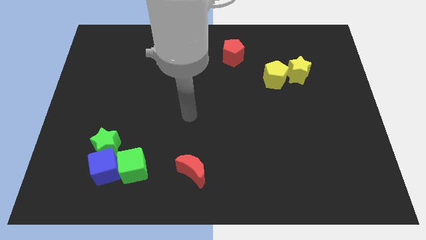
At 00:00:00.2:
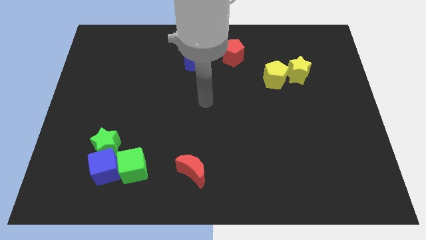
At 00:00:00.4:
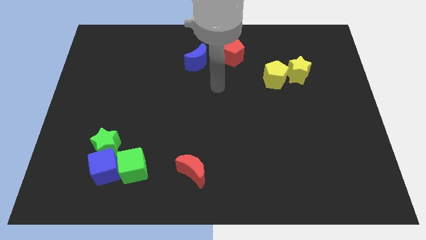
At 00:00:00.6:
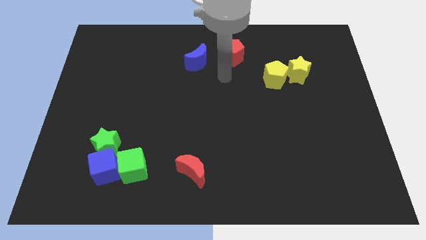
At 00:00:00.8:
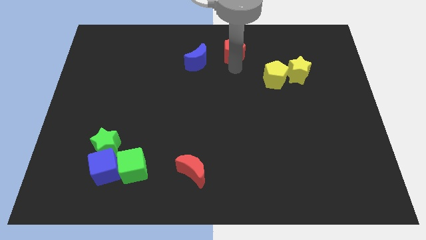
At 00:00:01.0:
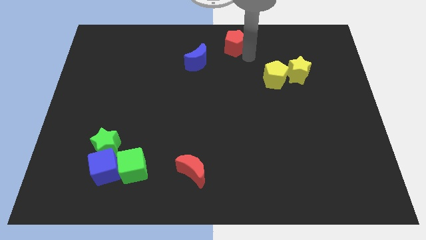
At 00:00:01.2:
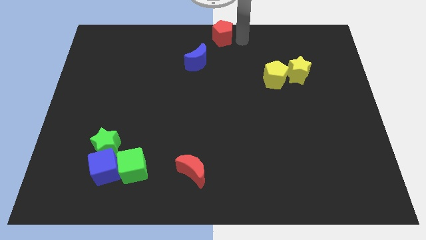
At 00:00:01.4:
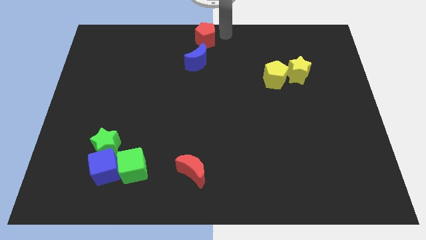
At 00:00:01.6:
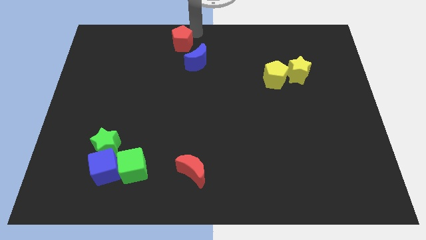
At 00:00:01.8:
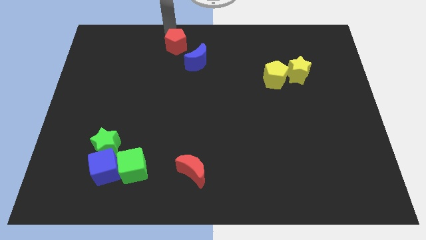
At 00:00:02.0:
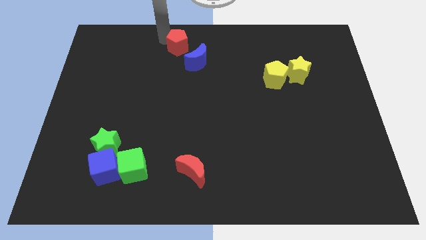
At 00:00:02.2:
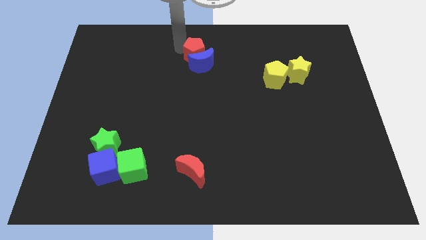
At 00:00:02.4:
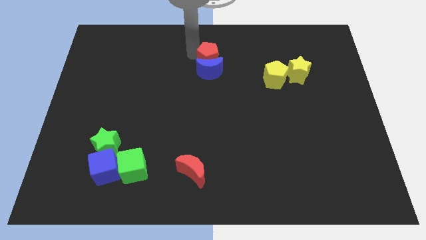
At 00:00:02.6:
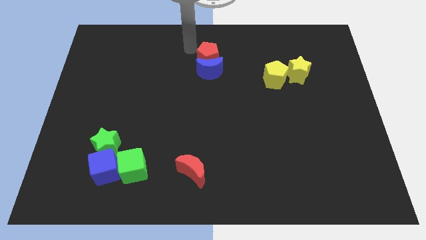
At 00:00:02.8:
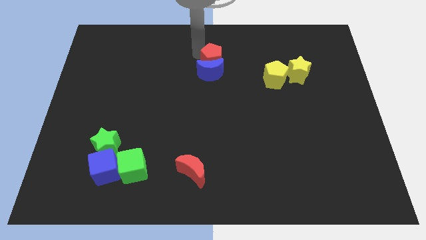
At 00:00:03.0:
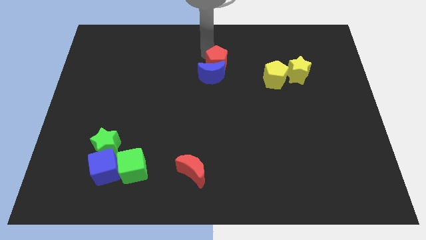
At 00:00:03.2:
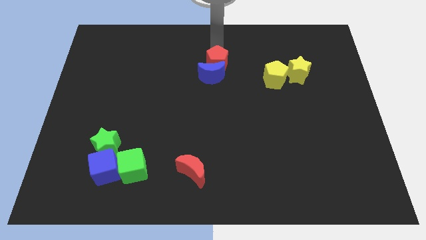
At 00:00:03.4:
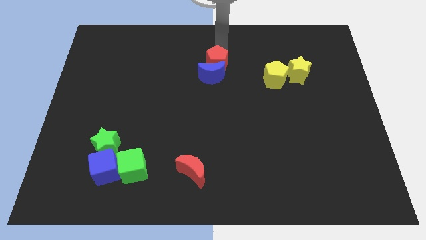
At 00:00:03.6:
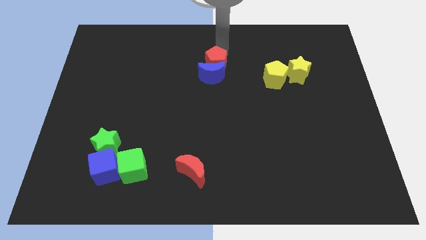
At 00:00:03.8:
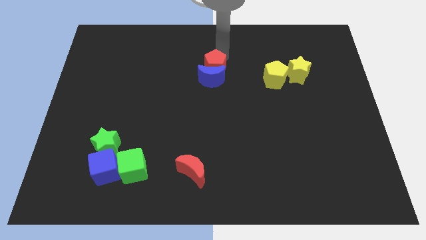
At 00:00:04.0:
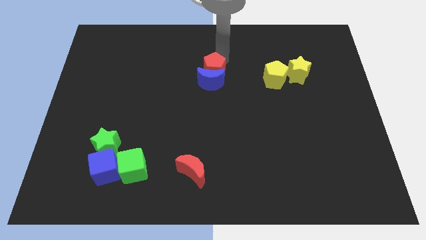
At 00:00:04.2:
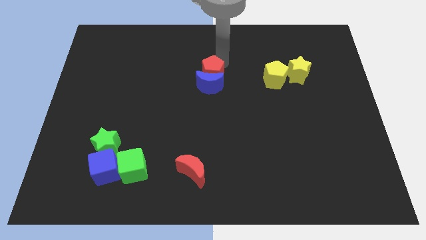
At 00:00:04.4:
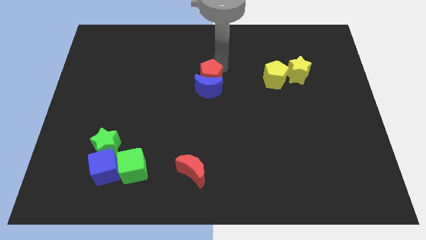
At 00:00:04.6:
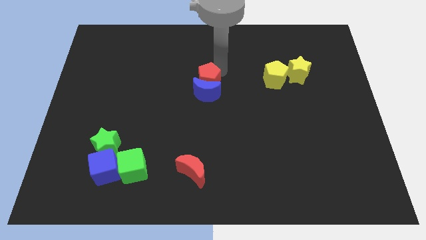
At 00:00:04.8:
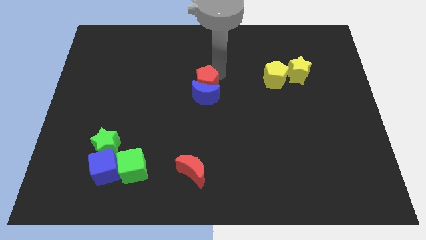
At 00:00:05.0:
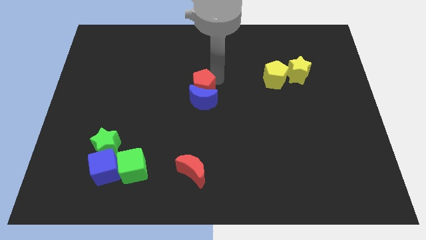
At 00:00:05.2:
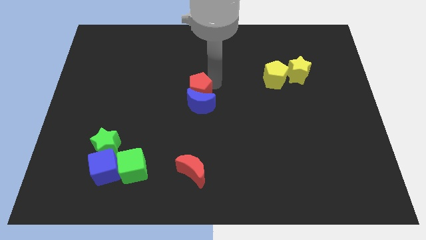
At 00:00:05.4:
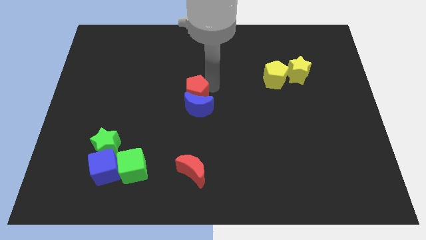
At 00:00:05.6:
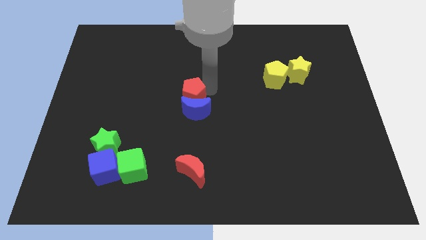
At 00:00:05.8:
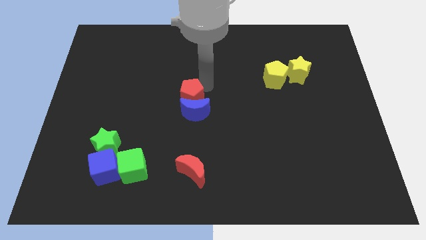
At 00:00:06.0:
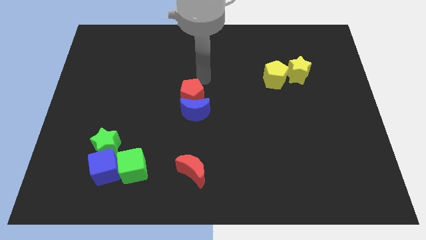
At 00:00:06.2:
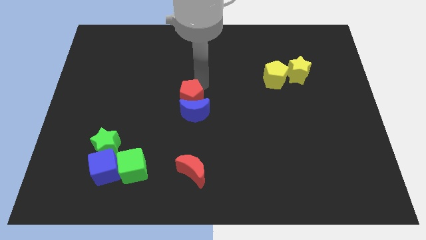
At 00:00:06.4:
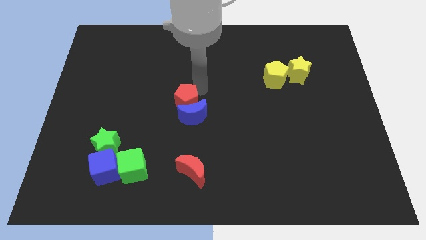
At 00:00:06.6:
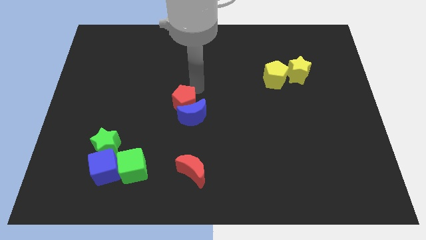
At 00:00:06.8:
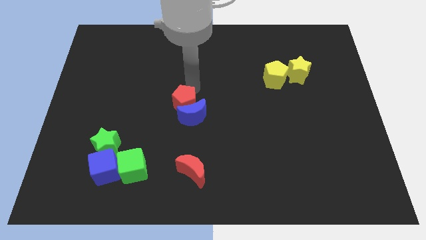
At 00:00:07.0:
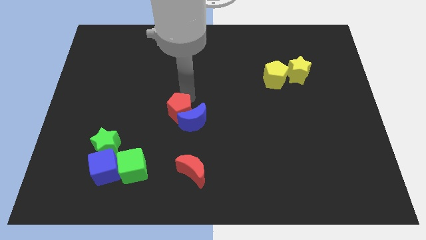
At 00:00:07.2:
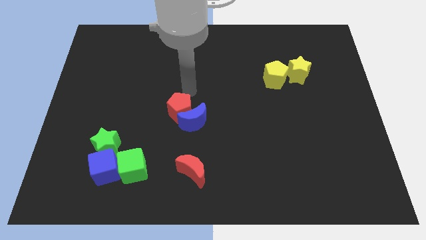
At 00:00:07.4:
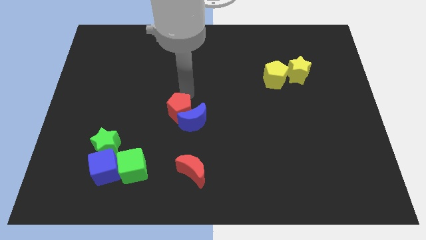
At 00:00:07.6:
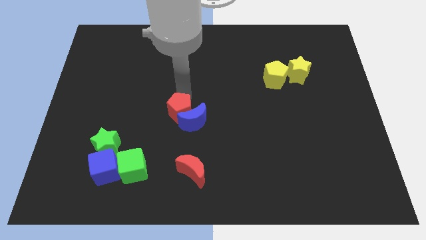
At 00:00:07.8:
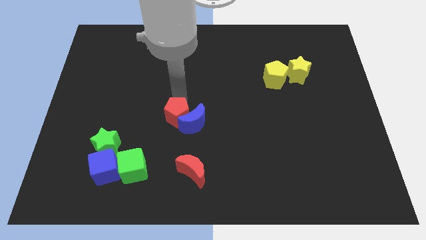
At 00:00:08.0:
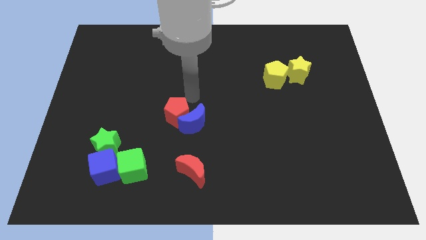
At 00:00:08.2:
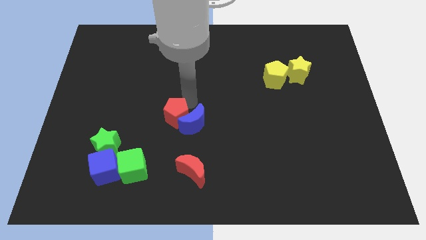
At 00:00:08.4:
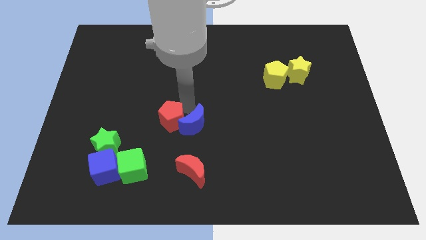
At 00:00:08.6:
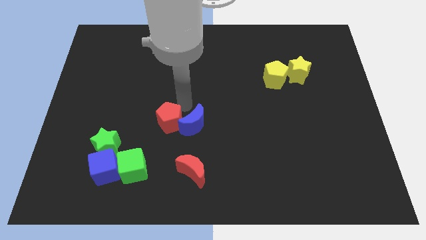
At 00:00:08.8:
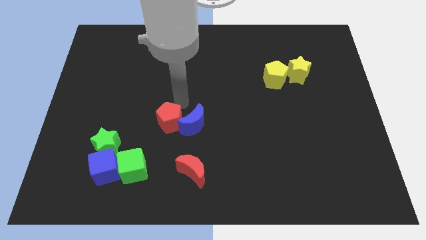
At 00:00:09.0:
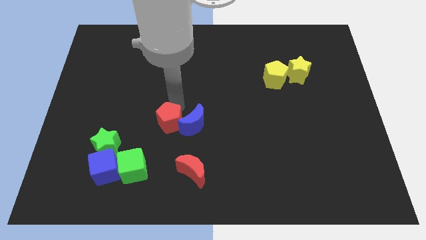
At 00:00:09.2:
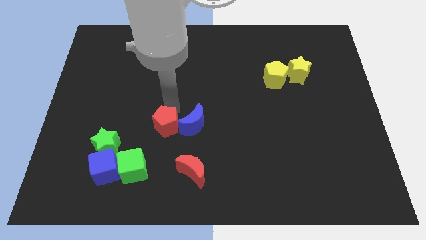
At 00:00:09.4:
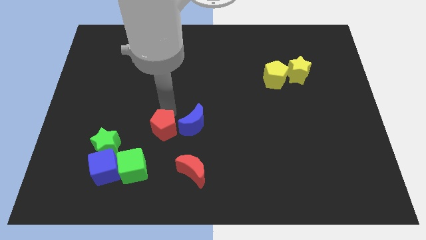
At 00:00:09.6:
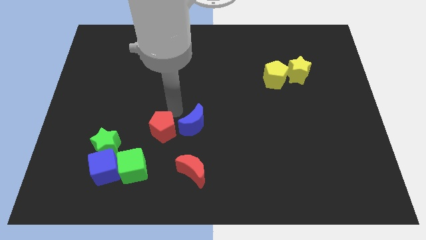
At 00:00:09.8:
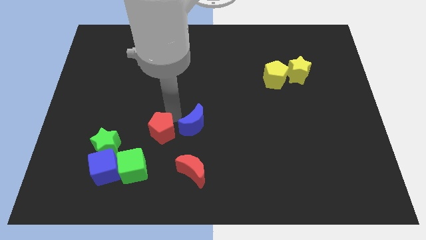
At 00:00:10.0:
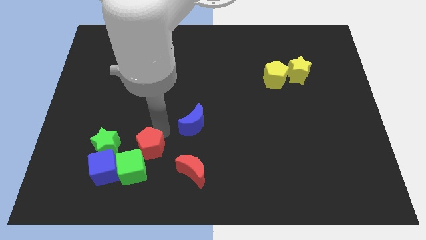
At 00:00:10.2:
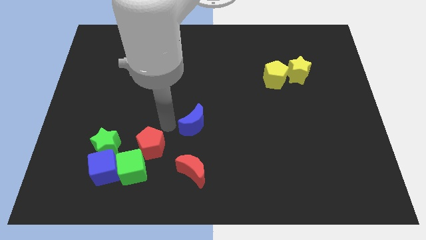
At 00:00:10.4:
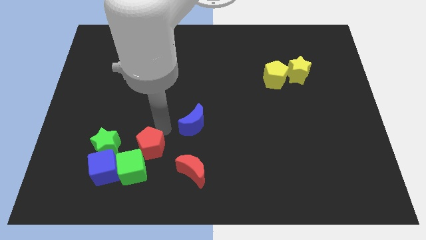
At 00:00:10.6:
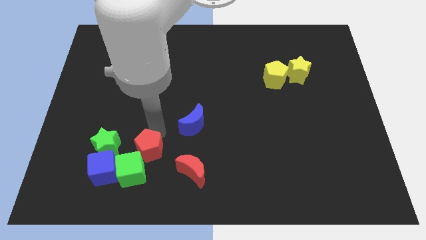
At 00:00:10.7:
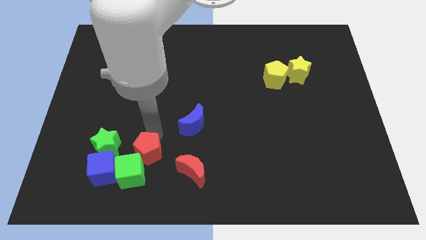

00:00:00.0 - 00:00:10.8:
push the red pentagon next to the green cube

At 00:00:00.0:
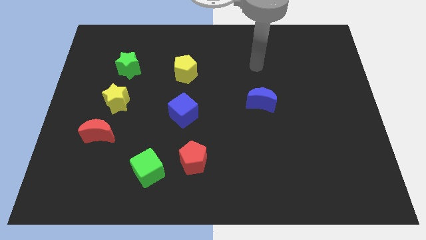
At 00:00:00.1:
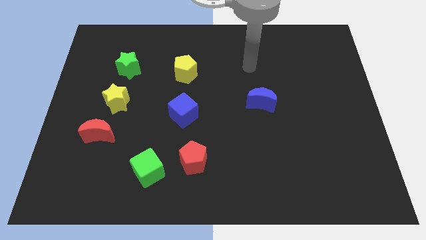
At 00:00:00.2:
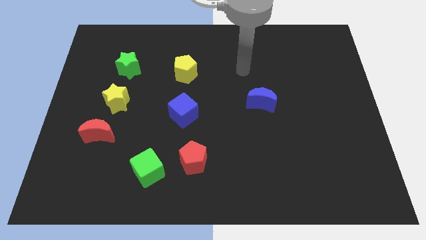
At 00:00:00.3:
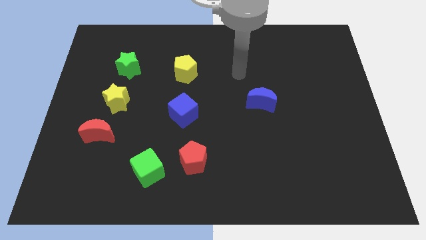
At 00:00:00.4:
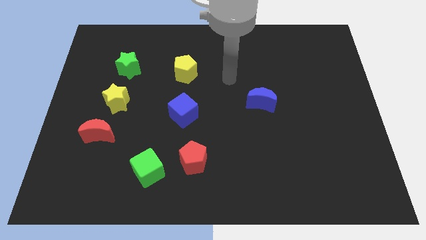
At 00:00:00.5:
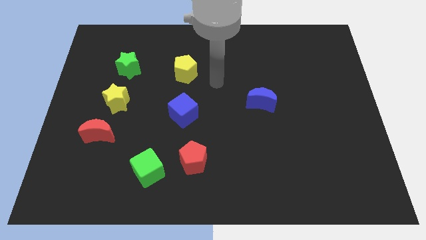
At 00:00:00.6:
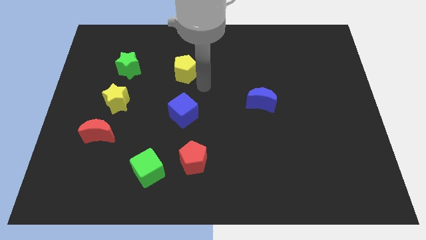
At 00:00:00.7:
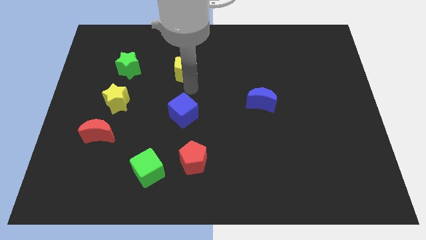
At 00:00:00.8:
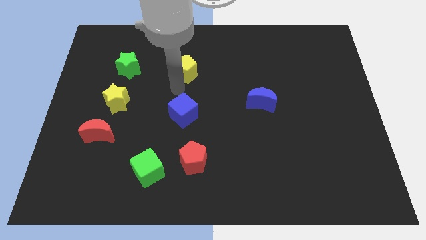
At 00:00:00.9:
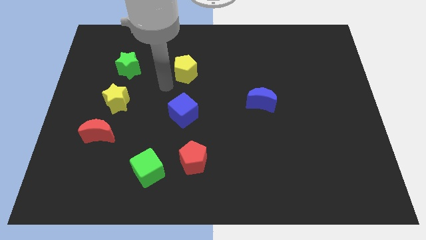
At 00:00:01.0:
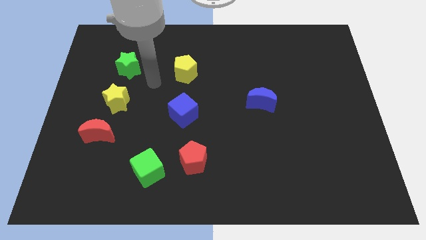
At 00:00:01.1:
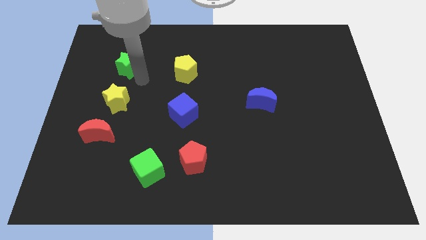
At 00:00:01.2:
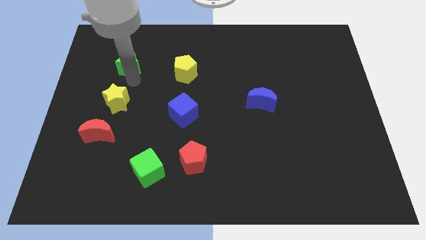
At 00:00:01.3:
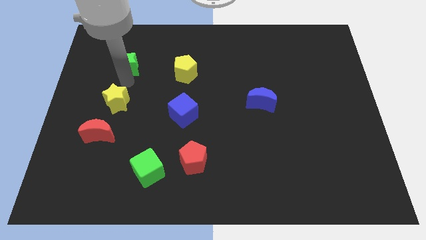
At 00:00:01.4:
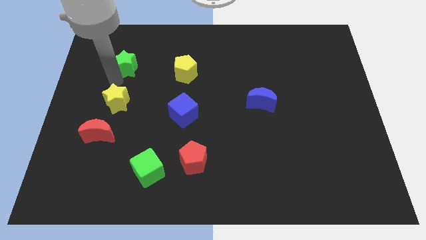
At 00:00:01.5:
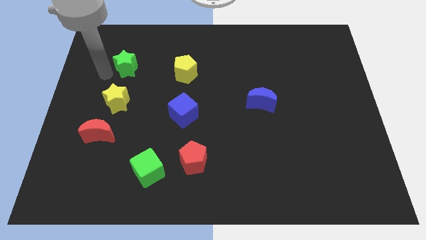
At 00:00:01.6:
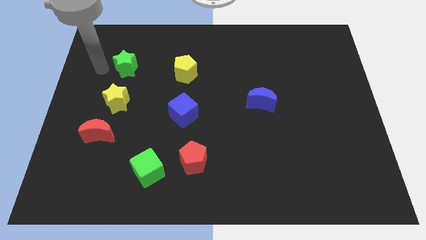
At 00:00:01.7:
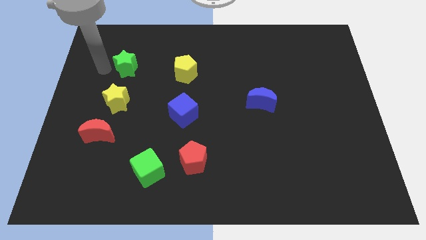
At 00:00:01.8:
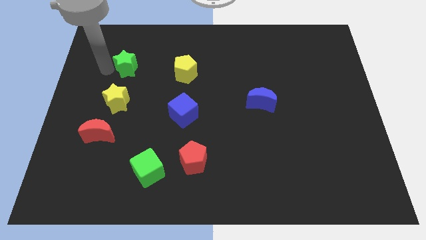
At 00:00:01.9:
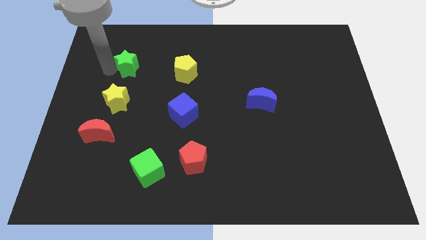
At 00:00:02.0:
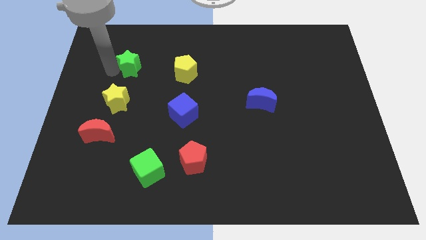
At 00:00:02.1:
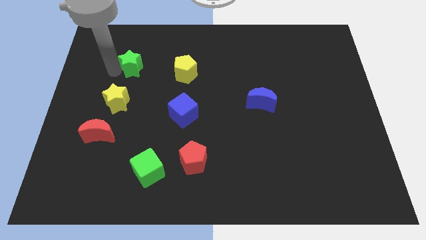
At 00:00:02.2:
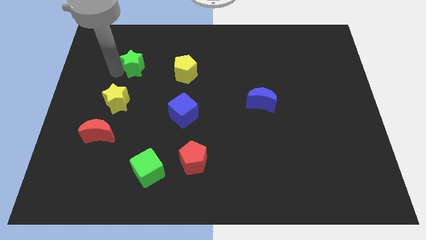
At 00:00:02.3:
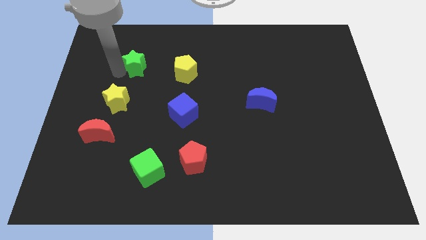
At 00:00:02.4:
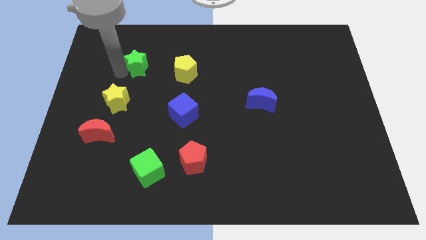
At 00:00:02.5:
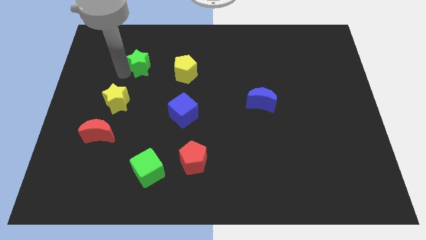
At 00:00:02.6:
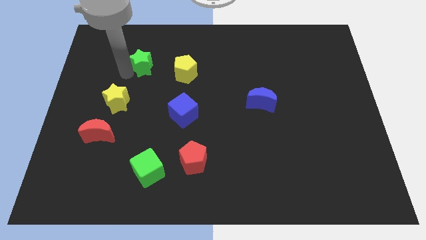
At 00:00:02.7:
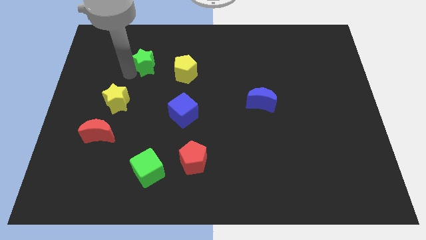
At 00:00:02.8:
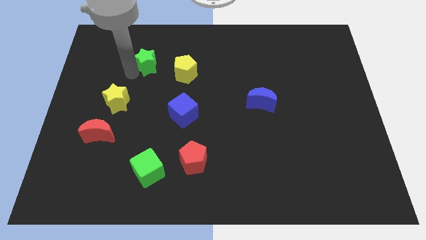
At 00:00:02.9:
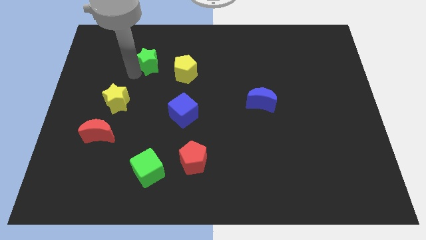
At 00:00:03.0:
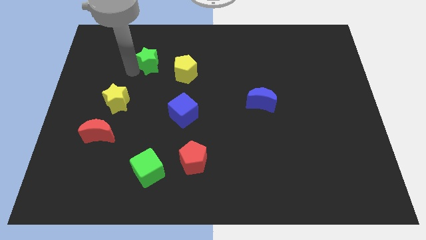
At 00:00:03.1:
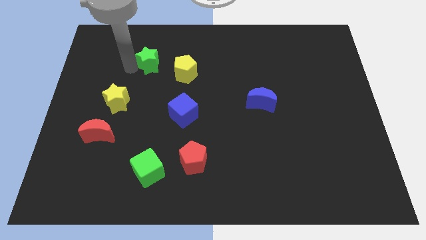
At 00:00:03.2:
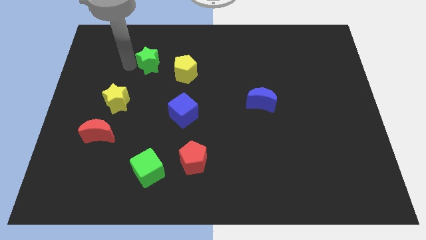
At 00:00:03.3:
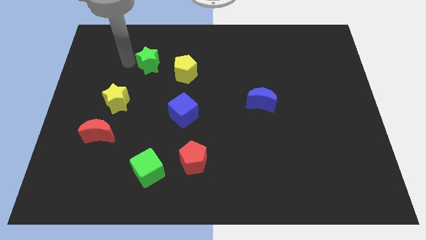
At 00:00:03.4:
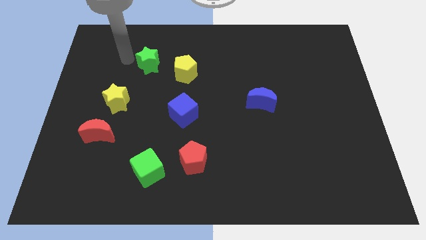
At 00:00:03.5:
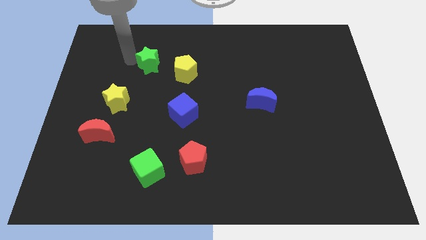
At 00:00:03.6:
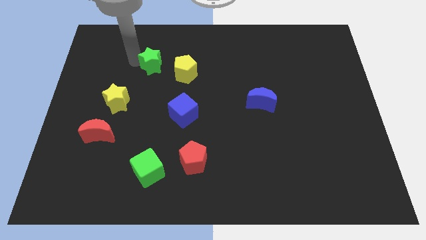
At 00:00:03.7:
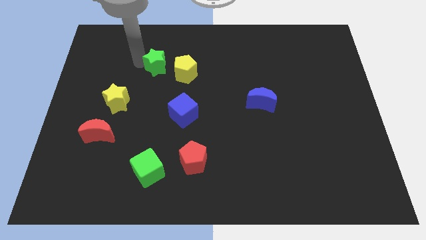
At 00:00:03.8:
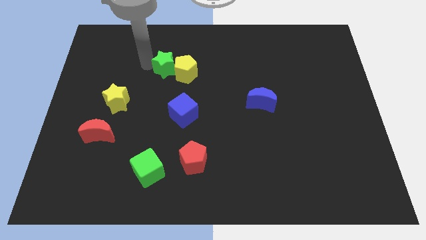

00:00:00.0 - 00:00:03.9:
put the green star close to the yellow pentagon
